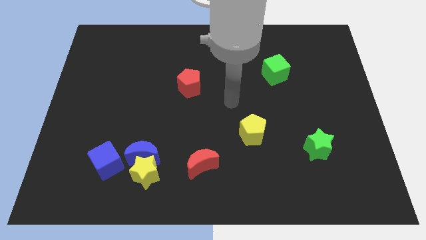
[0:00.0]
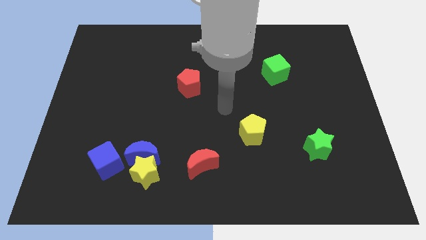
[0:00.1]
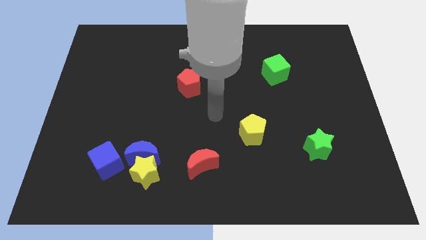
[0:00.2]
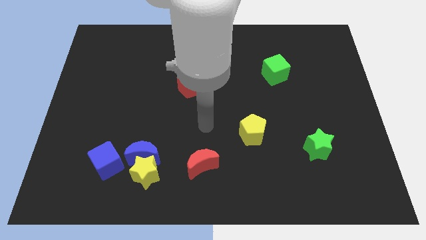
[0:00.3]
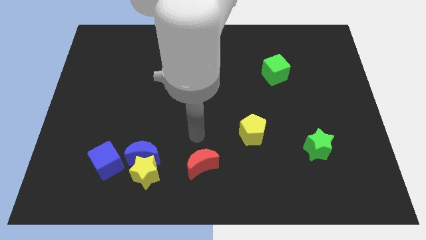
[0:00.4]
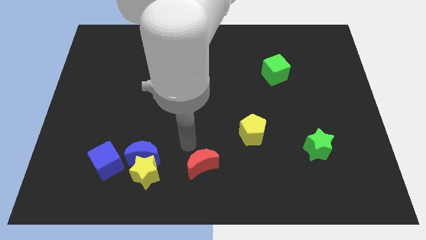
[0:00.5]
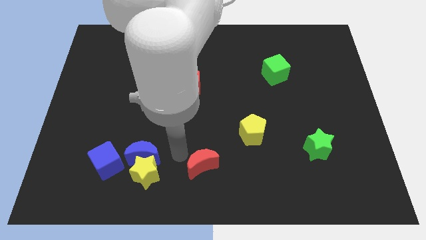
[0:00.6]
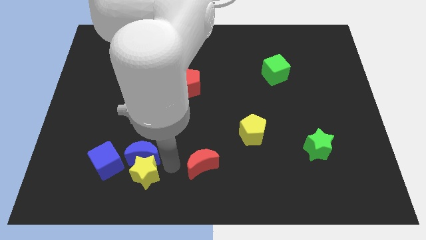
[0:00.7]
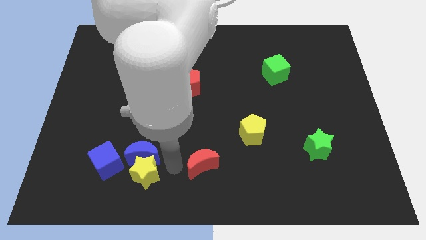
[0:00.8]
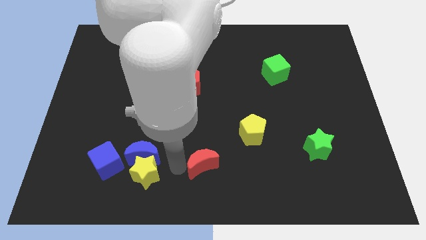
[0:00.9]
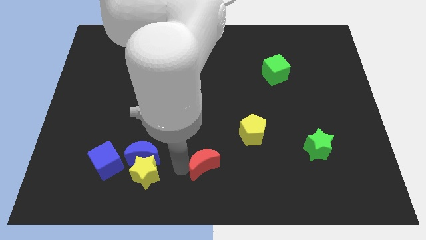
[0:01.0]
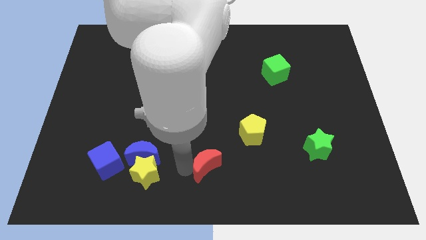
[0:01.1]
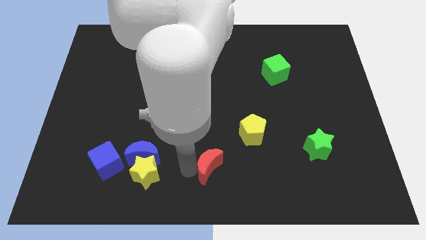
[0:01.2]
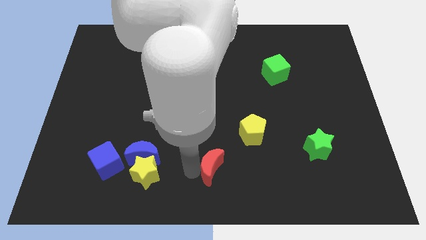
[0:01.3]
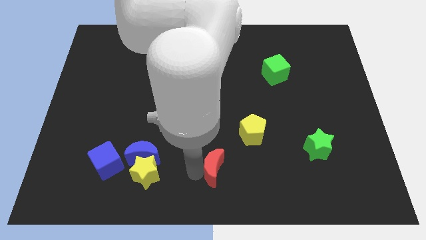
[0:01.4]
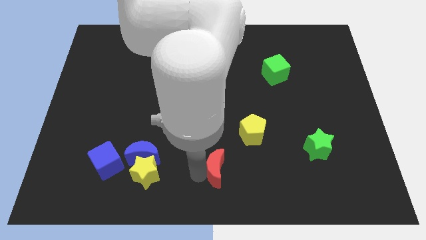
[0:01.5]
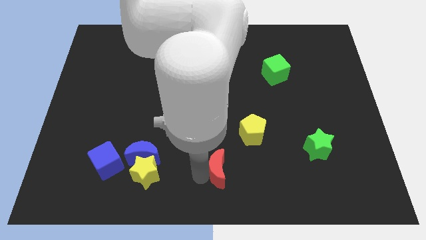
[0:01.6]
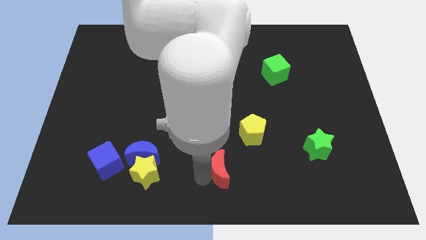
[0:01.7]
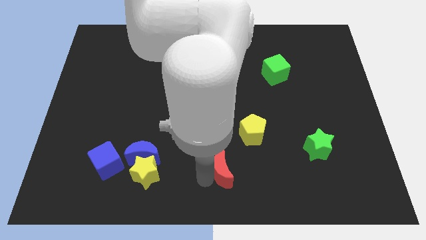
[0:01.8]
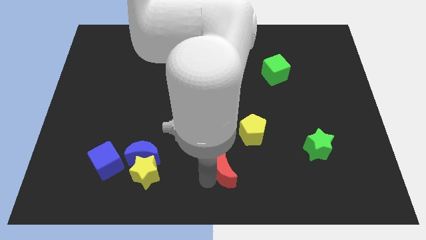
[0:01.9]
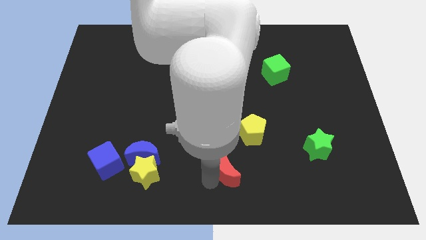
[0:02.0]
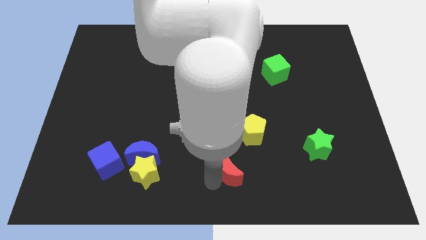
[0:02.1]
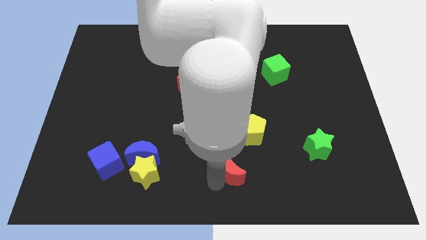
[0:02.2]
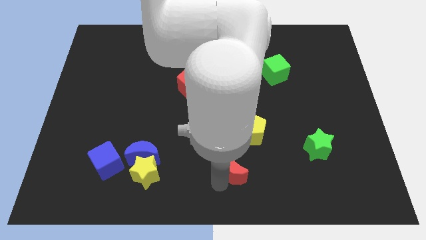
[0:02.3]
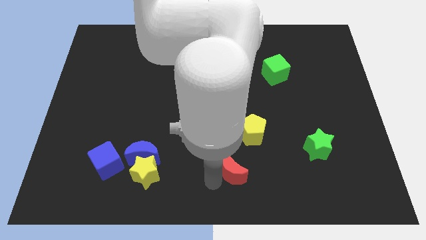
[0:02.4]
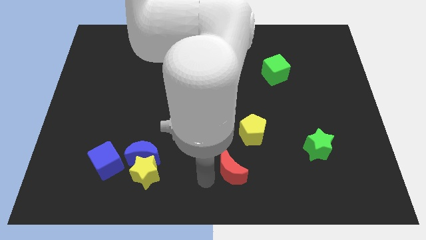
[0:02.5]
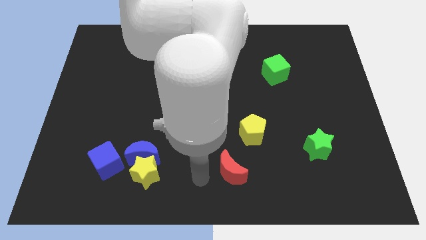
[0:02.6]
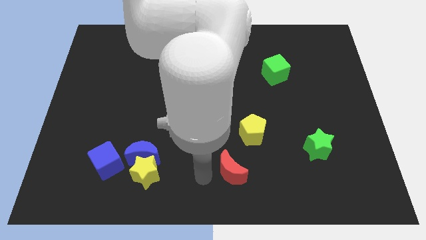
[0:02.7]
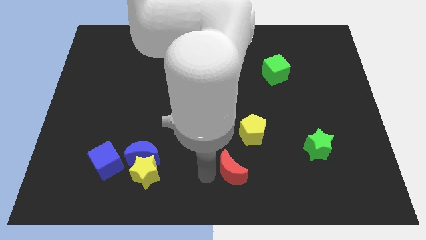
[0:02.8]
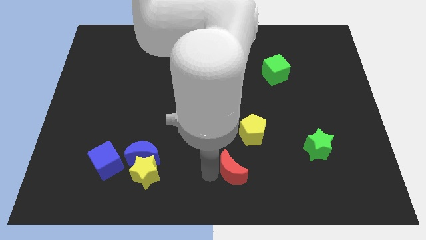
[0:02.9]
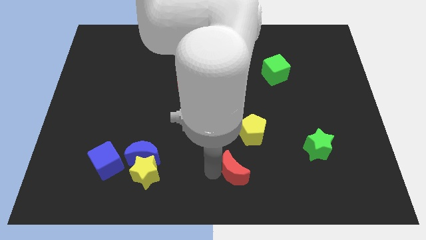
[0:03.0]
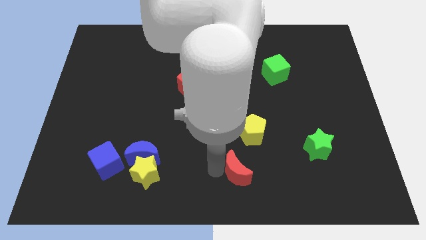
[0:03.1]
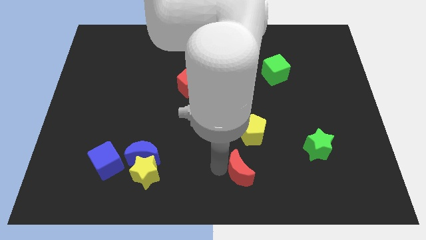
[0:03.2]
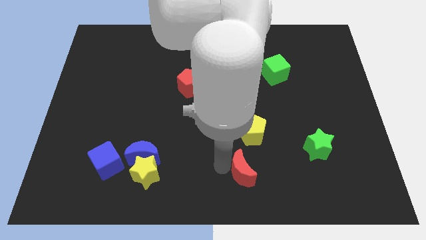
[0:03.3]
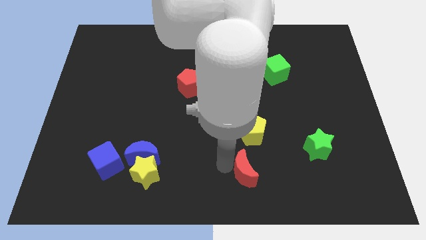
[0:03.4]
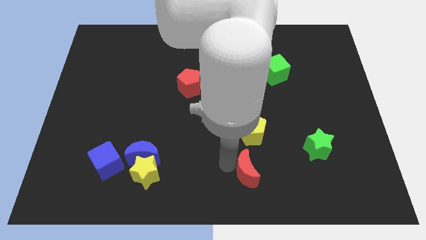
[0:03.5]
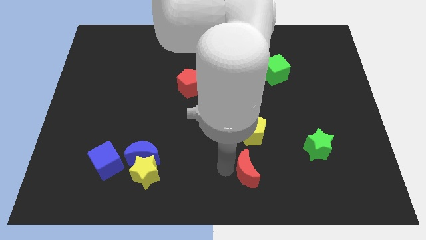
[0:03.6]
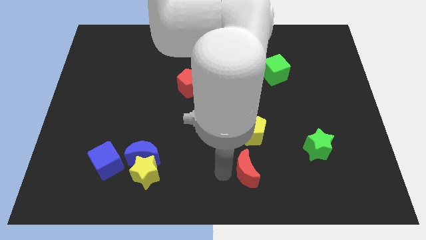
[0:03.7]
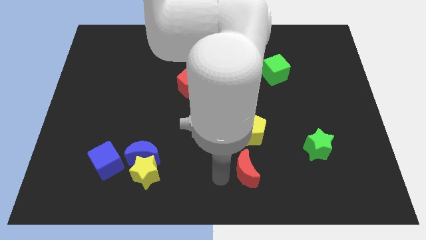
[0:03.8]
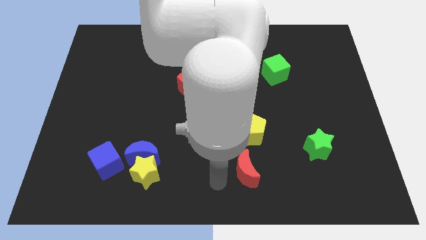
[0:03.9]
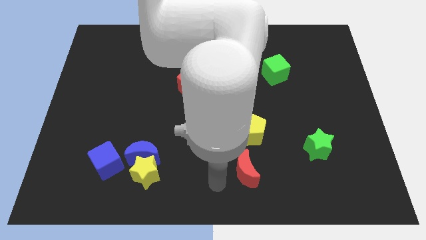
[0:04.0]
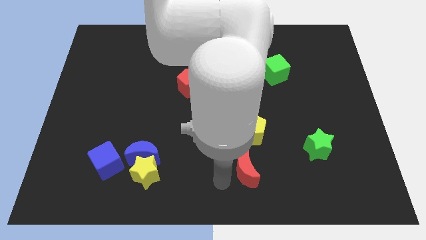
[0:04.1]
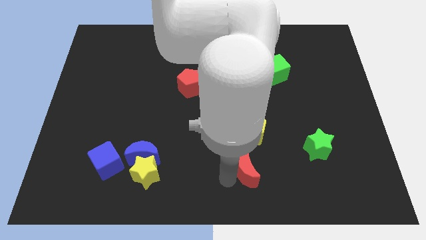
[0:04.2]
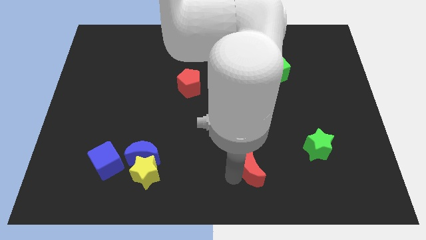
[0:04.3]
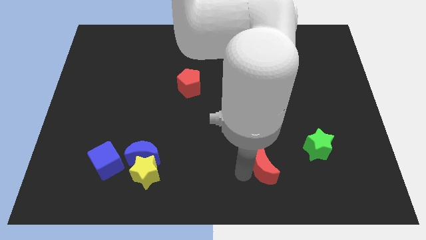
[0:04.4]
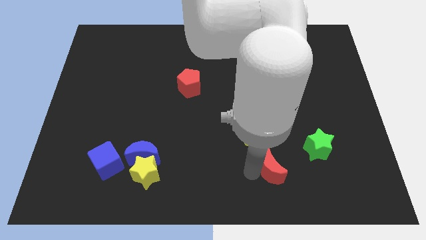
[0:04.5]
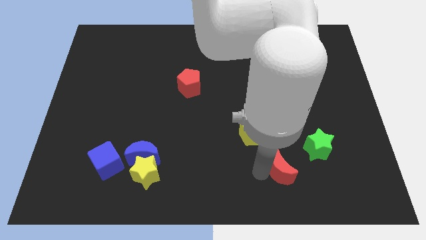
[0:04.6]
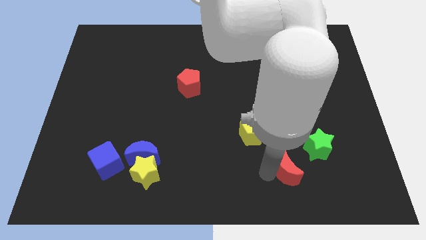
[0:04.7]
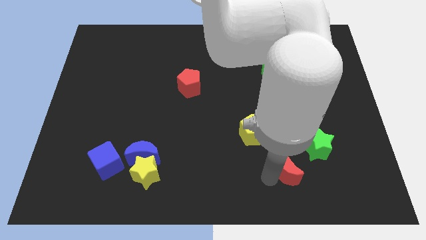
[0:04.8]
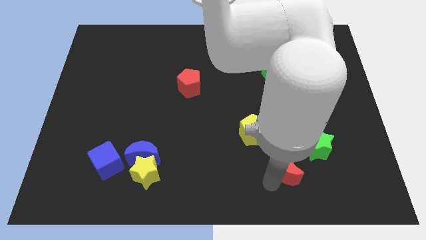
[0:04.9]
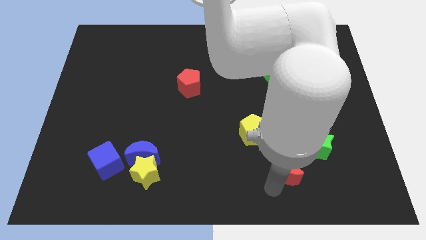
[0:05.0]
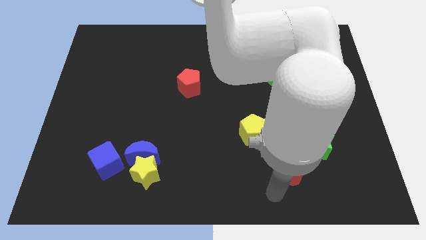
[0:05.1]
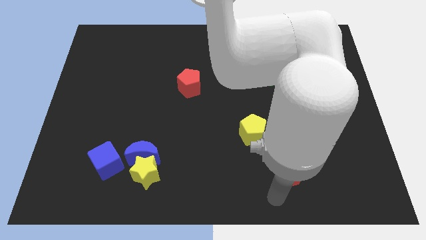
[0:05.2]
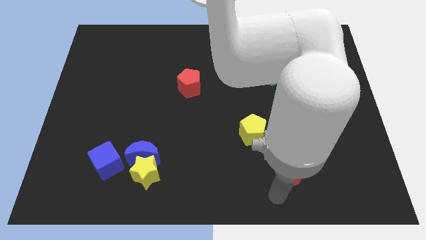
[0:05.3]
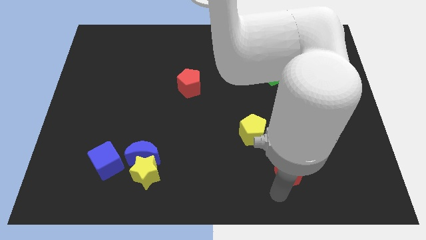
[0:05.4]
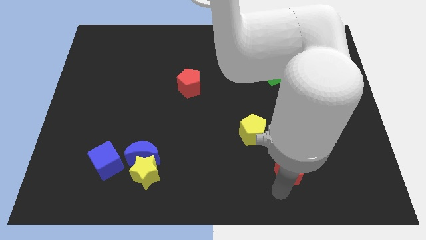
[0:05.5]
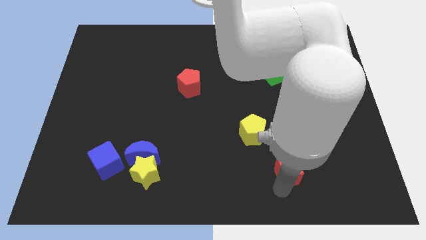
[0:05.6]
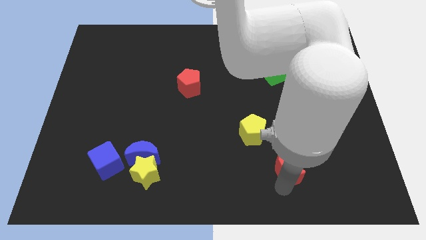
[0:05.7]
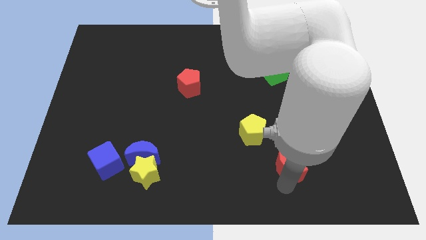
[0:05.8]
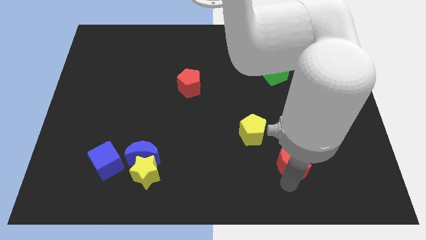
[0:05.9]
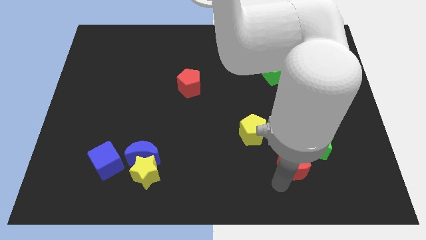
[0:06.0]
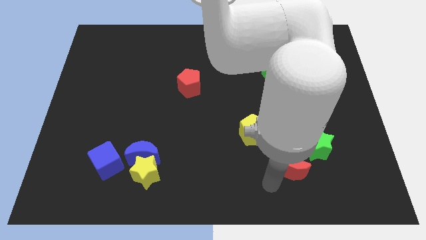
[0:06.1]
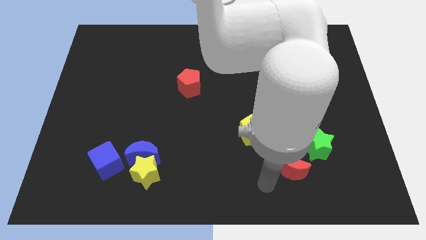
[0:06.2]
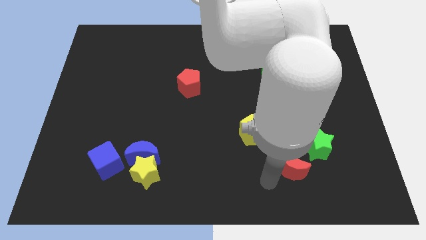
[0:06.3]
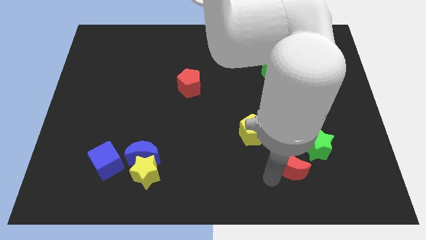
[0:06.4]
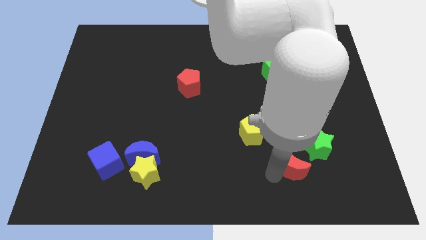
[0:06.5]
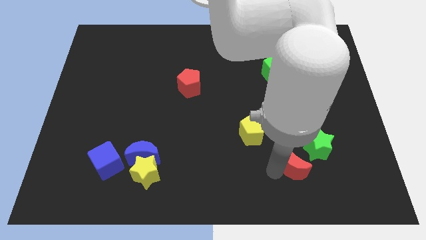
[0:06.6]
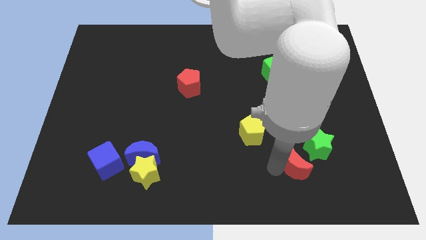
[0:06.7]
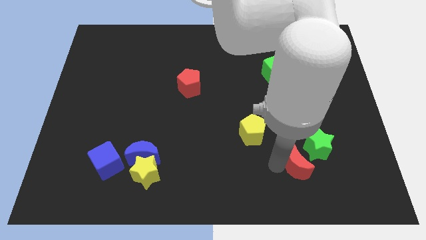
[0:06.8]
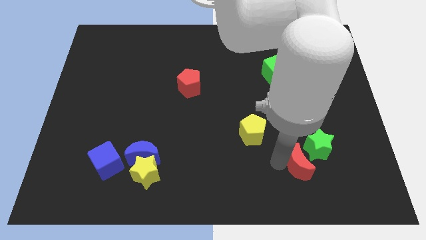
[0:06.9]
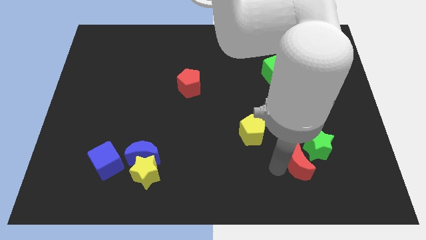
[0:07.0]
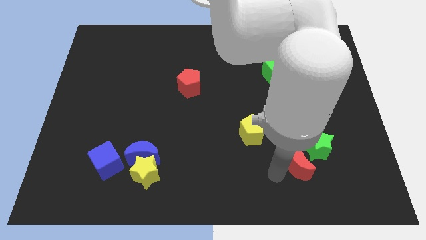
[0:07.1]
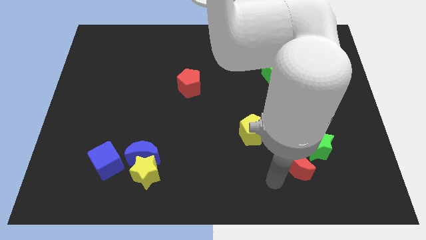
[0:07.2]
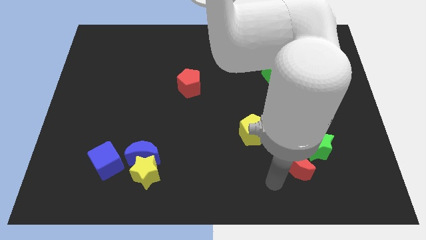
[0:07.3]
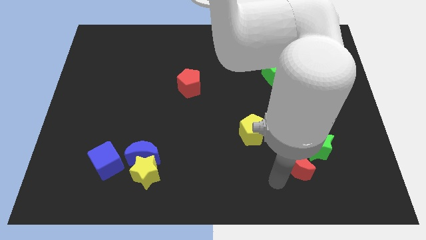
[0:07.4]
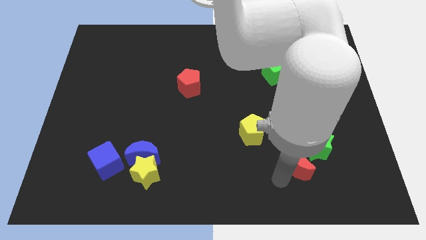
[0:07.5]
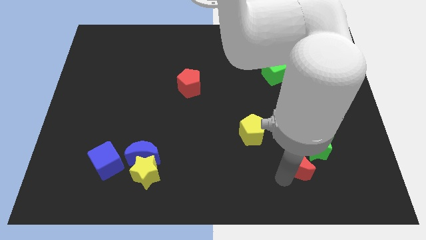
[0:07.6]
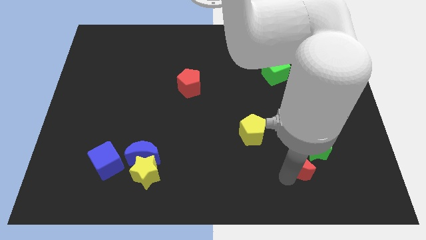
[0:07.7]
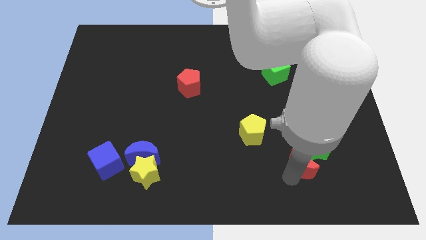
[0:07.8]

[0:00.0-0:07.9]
put the red moon towards the green star
